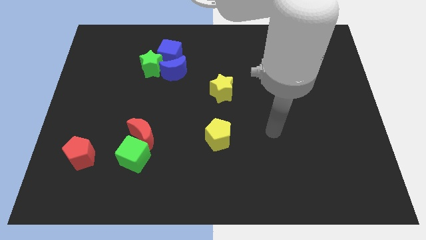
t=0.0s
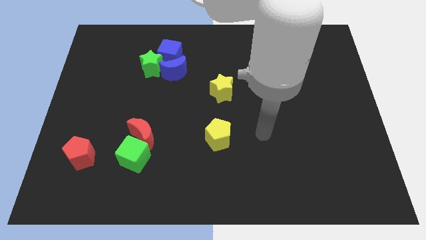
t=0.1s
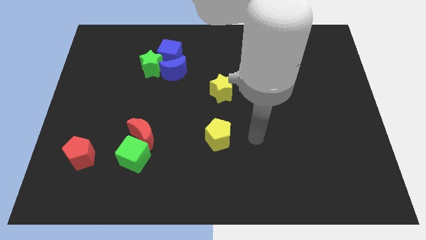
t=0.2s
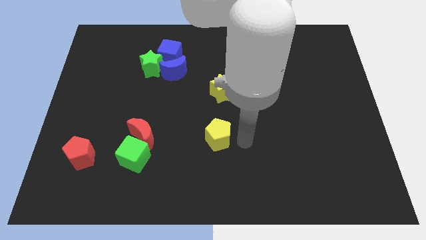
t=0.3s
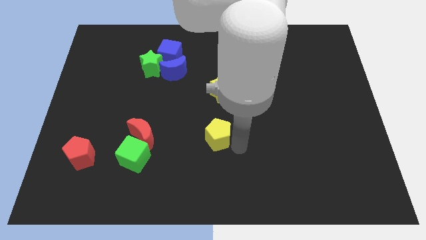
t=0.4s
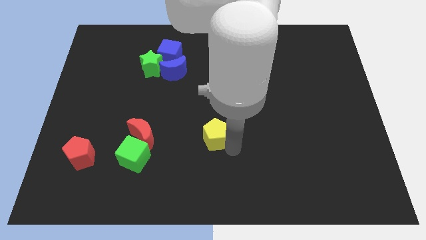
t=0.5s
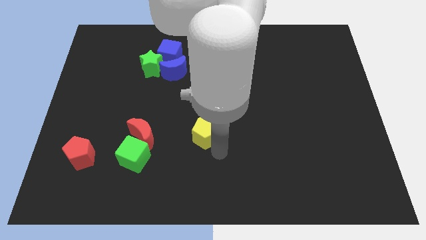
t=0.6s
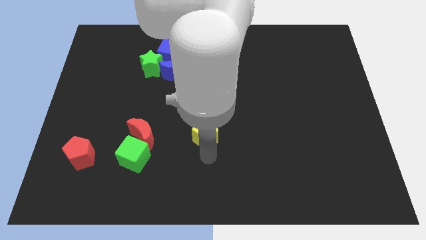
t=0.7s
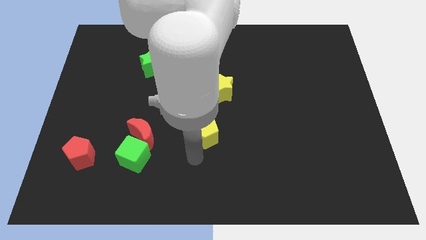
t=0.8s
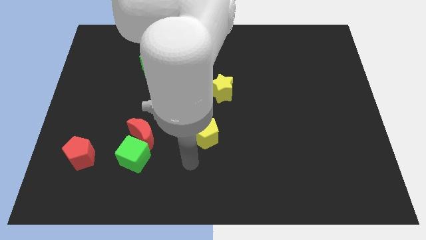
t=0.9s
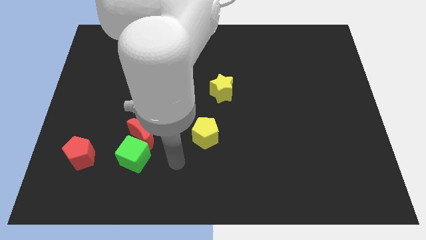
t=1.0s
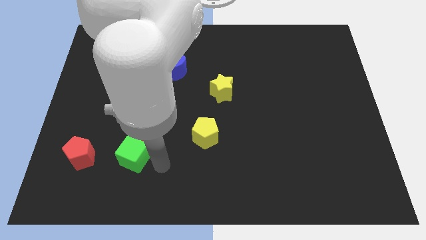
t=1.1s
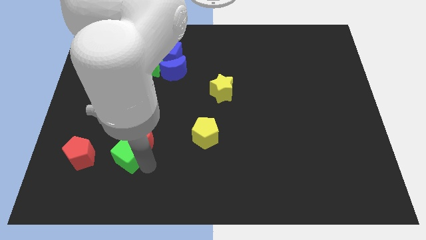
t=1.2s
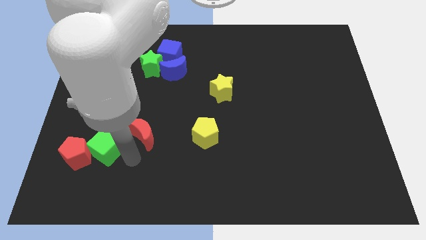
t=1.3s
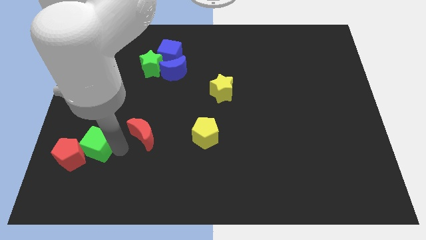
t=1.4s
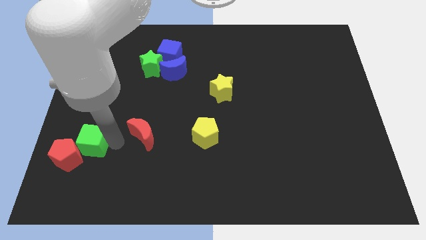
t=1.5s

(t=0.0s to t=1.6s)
separate the red moon from the green cube

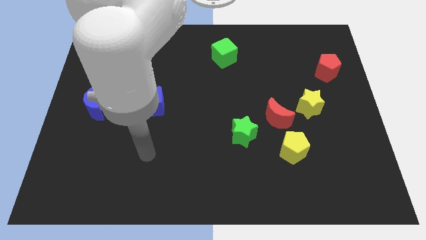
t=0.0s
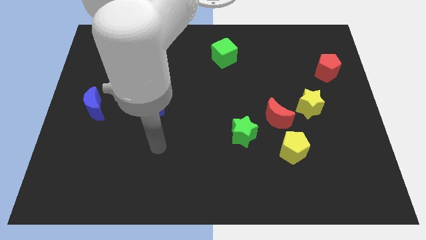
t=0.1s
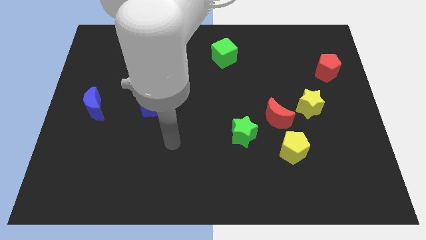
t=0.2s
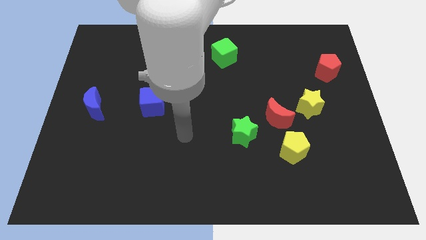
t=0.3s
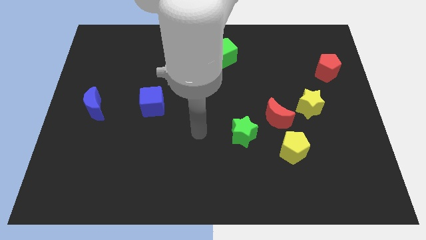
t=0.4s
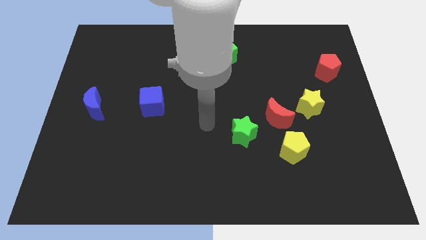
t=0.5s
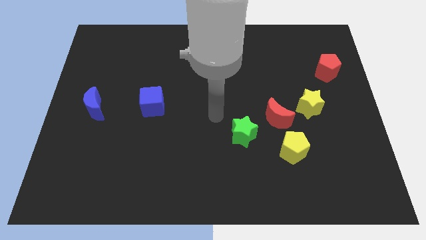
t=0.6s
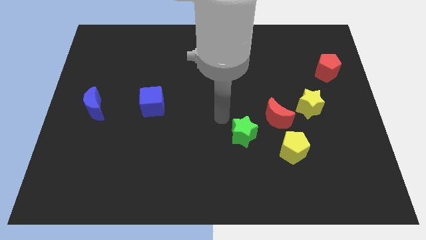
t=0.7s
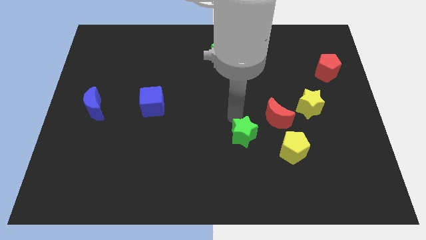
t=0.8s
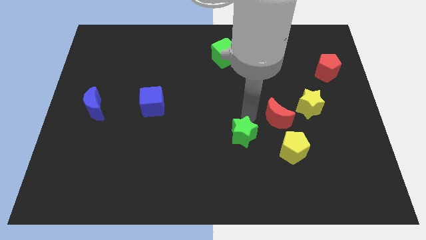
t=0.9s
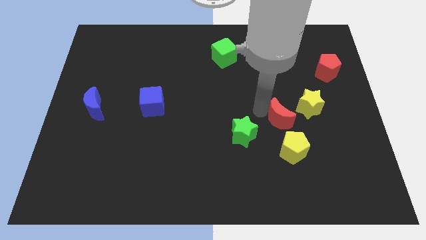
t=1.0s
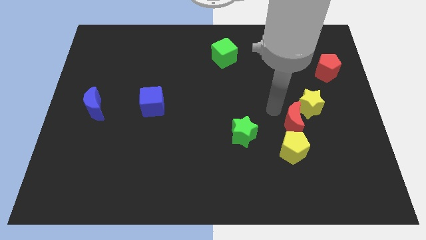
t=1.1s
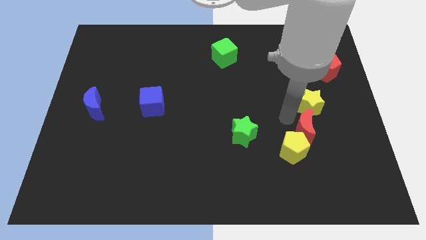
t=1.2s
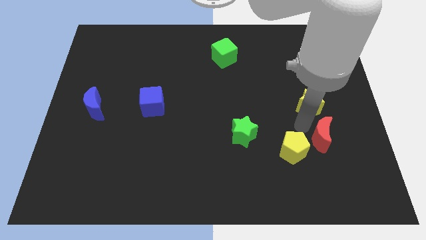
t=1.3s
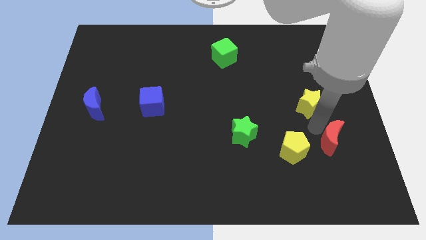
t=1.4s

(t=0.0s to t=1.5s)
move the yellow star away from the red moon

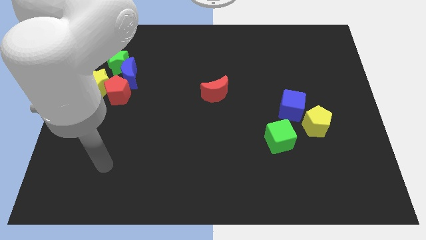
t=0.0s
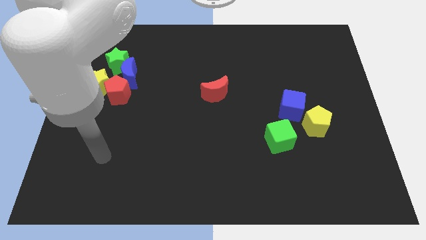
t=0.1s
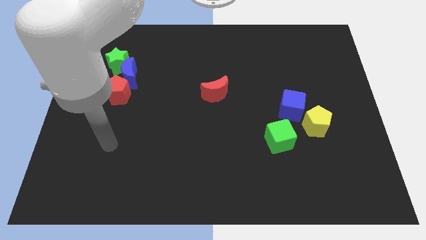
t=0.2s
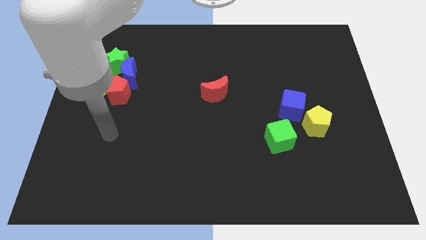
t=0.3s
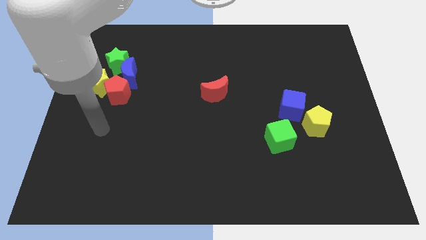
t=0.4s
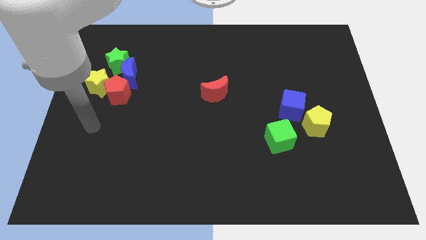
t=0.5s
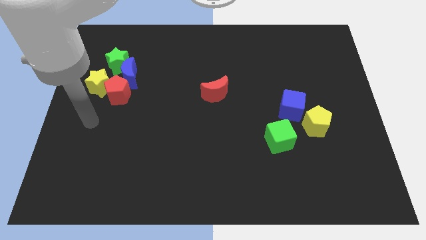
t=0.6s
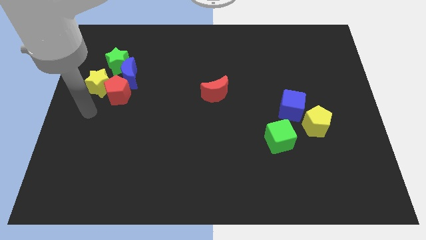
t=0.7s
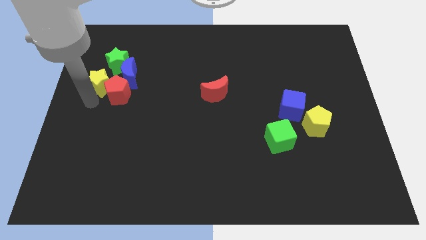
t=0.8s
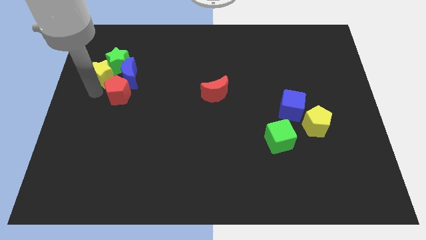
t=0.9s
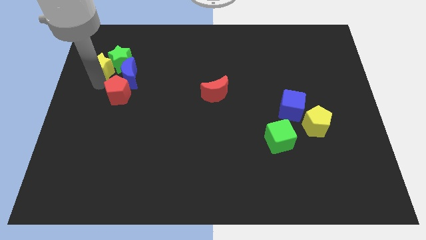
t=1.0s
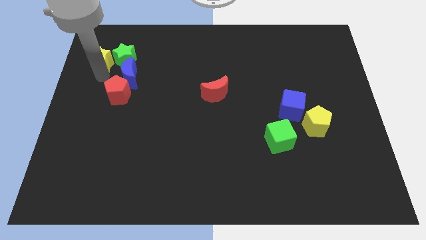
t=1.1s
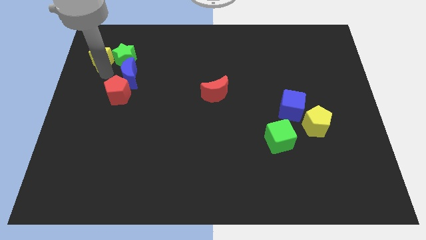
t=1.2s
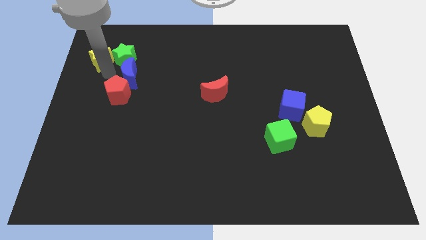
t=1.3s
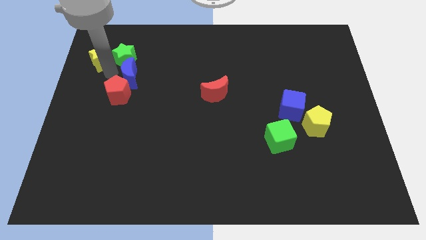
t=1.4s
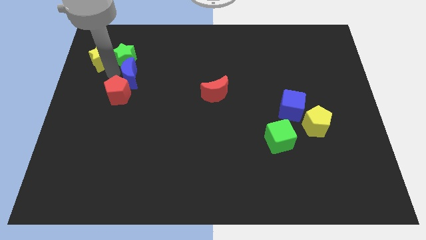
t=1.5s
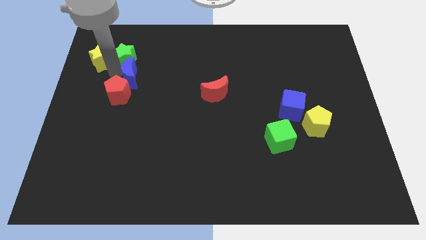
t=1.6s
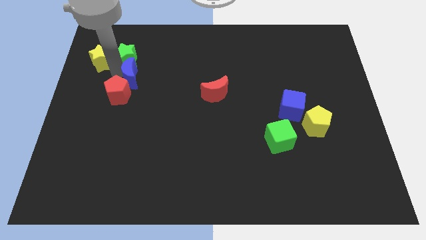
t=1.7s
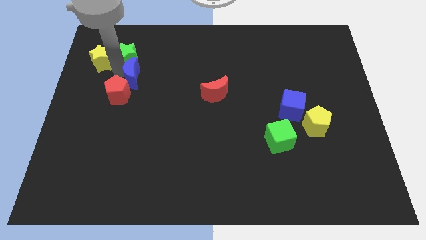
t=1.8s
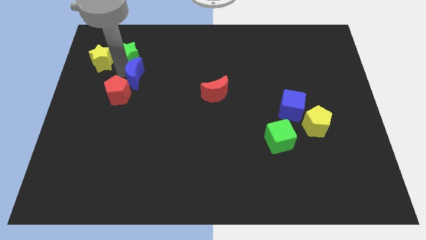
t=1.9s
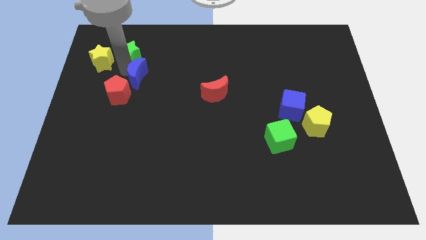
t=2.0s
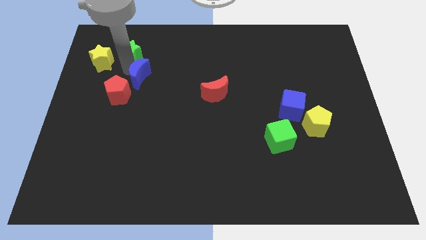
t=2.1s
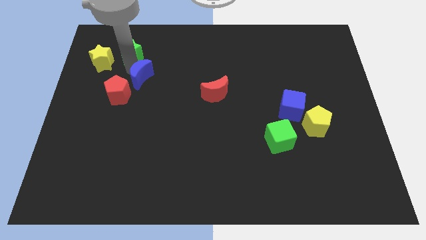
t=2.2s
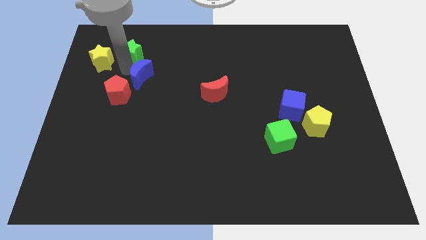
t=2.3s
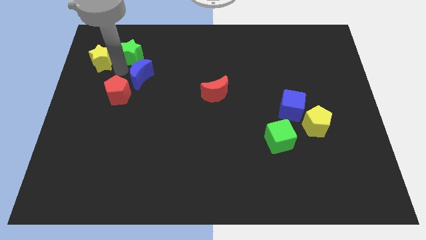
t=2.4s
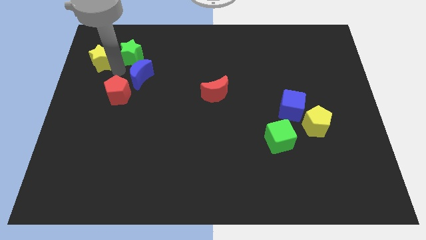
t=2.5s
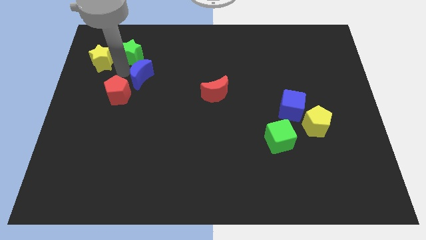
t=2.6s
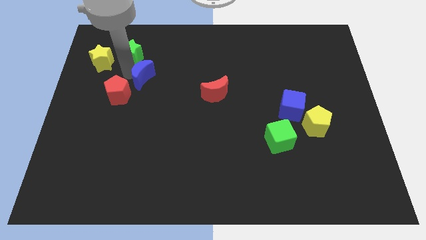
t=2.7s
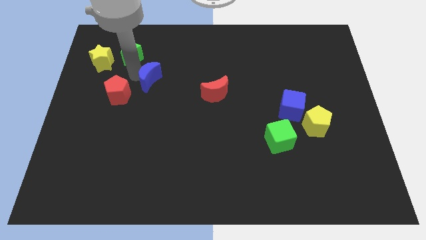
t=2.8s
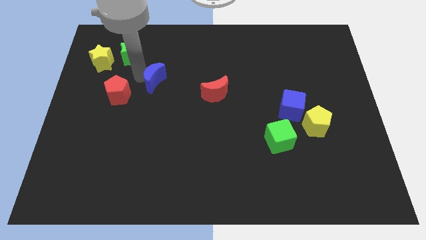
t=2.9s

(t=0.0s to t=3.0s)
pull the blue moon apart from the green star, red pentagon, and yellow star

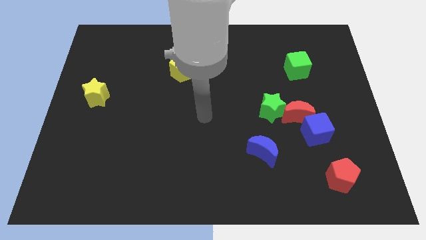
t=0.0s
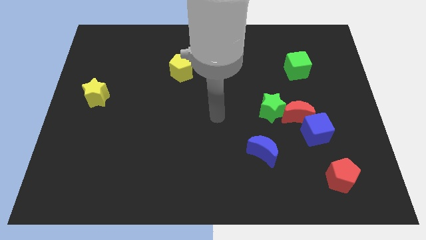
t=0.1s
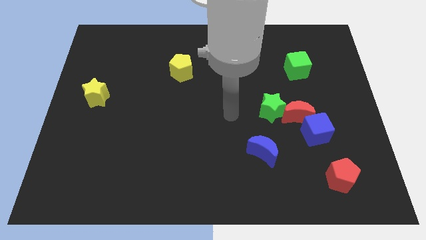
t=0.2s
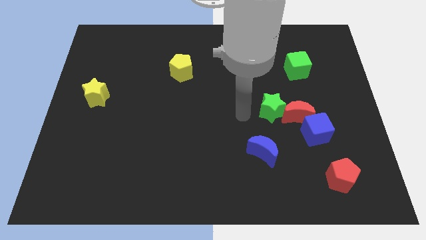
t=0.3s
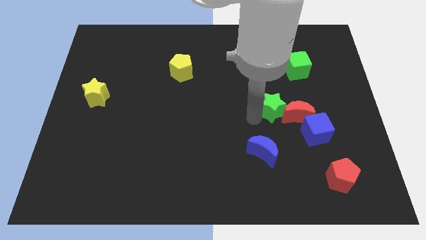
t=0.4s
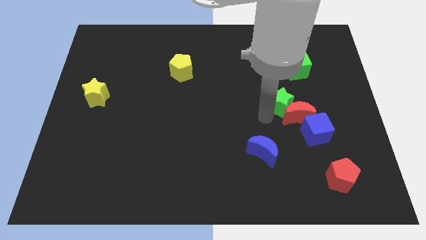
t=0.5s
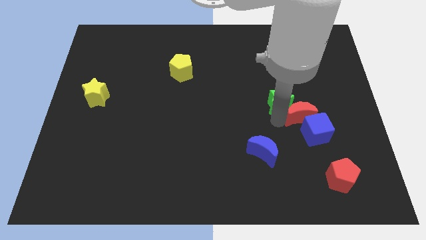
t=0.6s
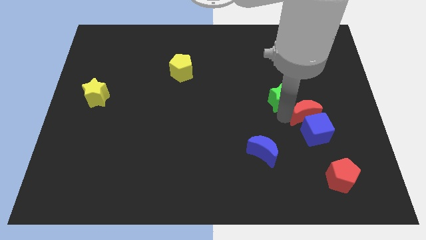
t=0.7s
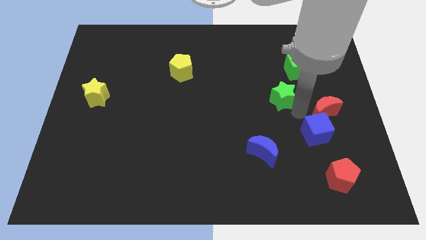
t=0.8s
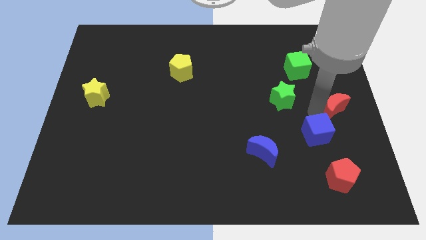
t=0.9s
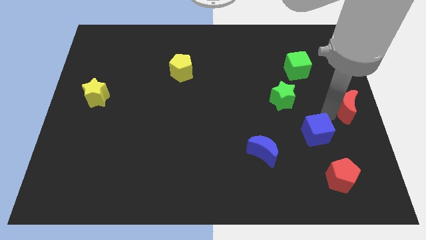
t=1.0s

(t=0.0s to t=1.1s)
separate the blue cube from the red moon

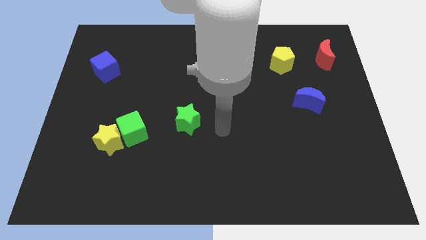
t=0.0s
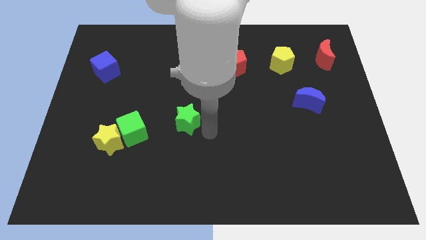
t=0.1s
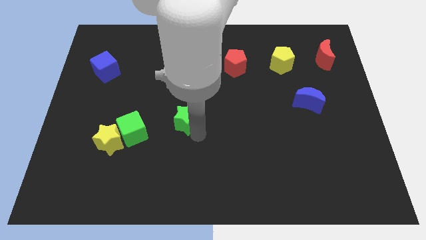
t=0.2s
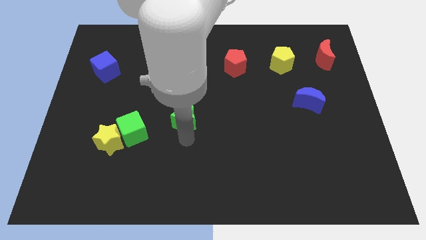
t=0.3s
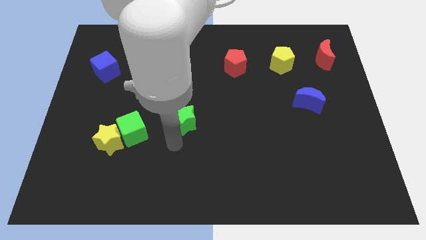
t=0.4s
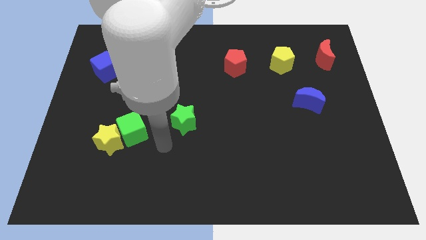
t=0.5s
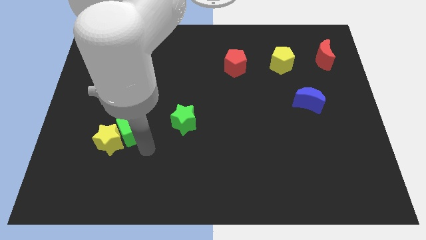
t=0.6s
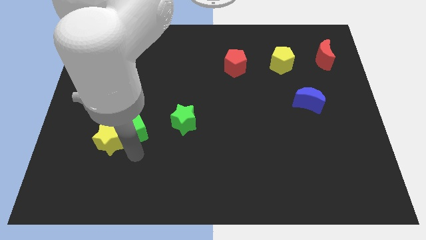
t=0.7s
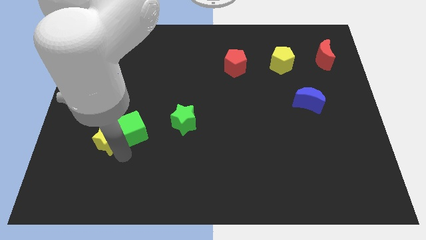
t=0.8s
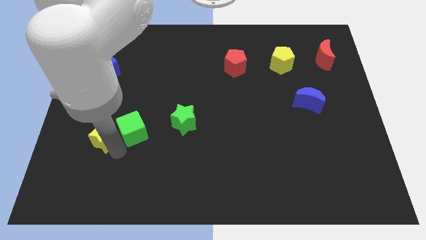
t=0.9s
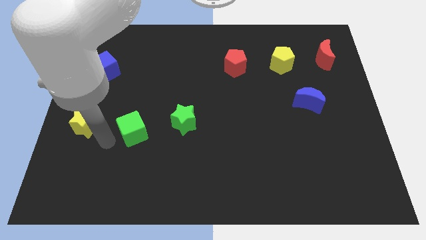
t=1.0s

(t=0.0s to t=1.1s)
separate the green cube from the yellow star

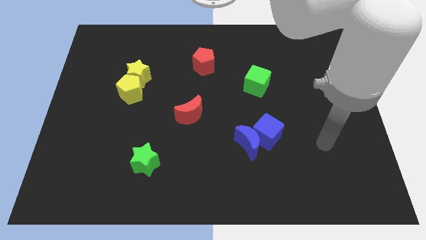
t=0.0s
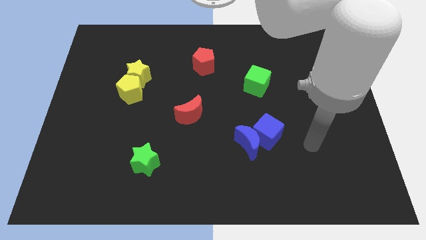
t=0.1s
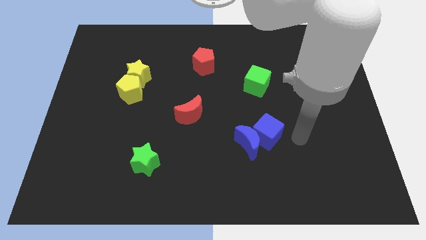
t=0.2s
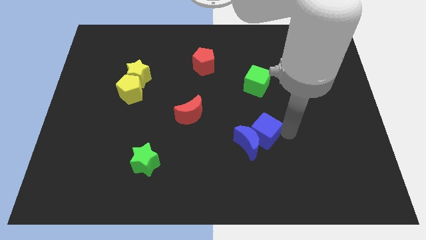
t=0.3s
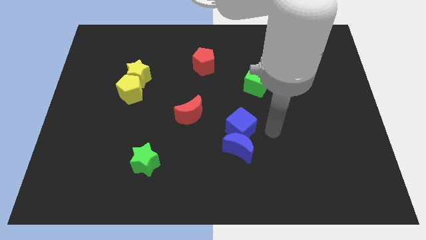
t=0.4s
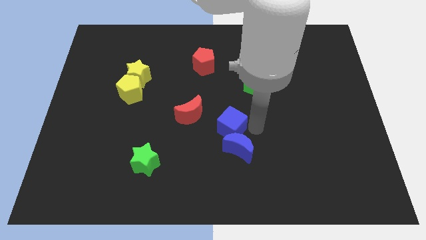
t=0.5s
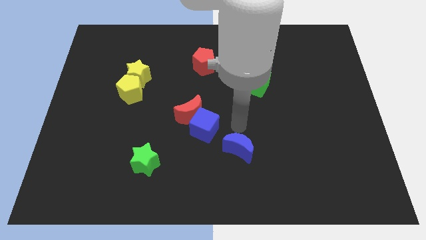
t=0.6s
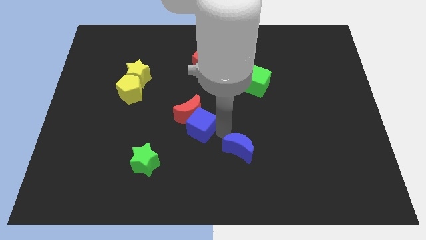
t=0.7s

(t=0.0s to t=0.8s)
separate the blue moon from the blue cube

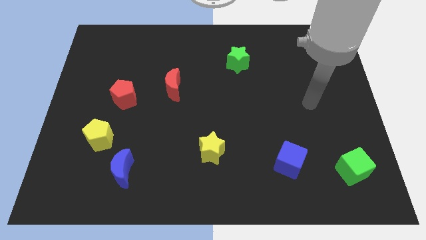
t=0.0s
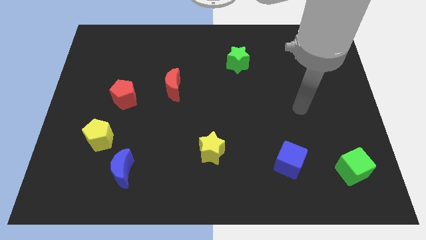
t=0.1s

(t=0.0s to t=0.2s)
move the blue moon away from the yellow pentagon
